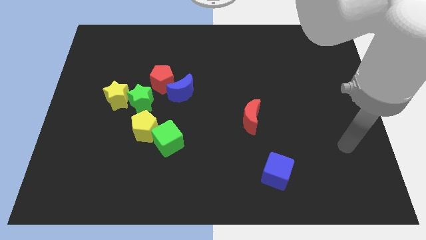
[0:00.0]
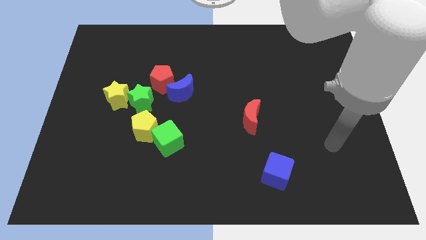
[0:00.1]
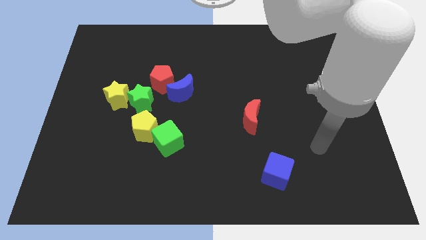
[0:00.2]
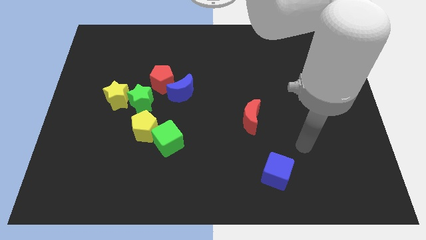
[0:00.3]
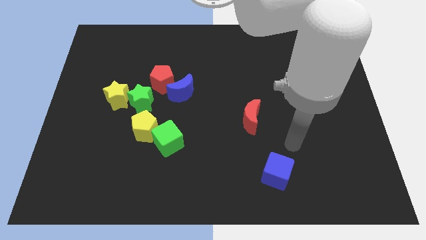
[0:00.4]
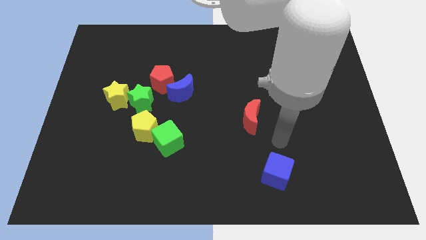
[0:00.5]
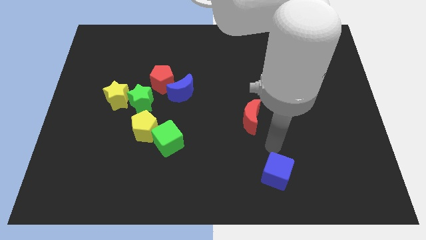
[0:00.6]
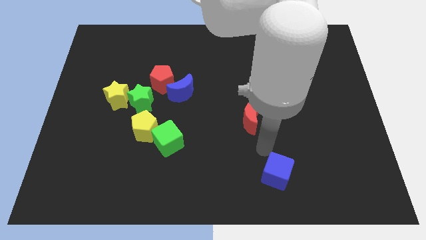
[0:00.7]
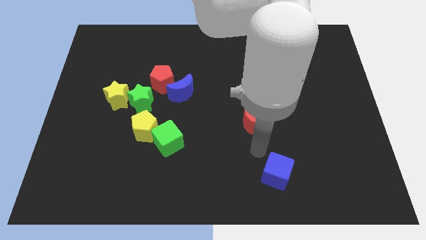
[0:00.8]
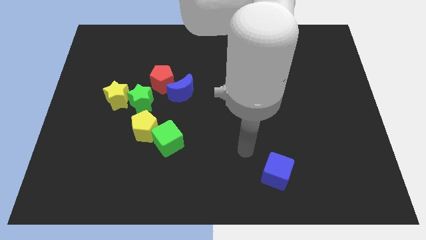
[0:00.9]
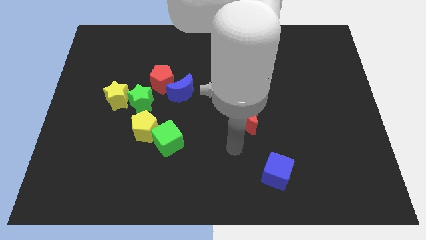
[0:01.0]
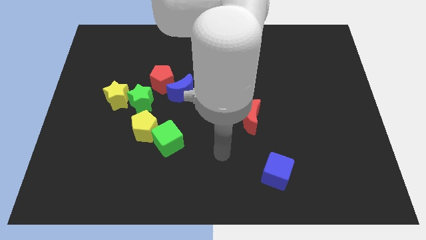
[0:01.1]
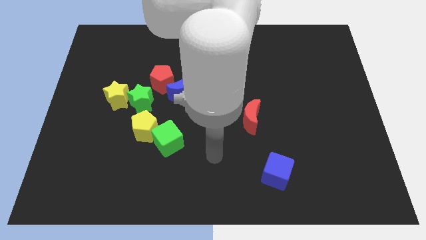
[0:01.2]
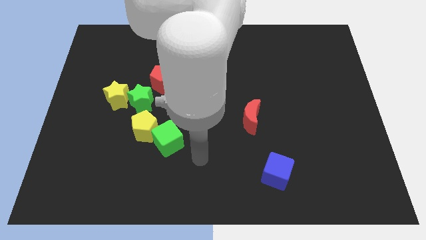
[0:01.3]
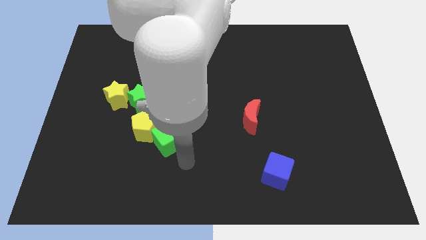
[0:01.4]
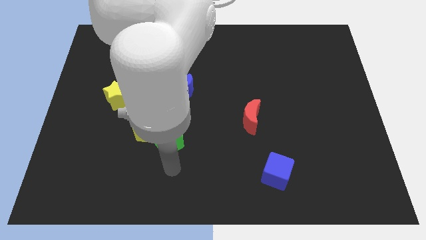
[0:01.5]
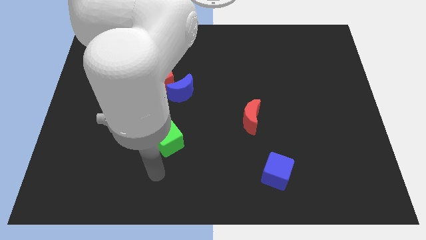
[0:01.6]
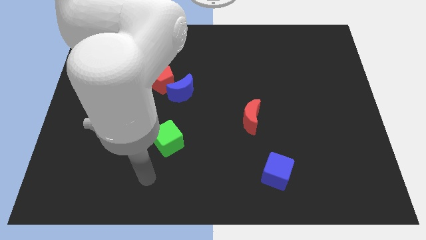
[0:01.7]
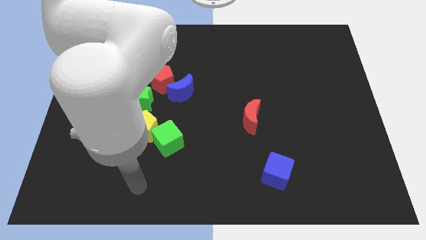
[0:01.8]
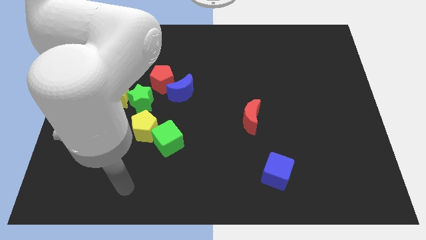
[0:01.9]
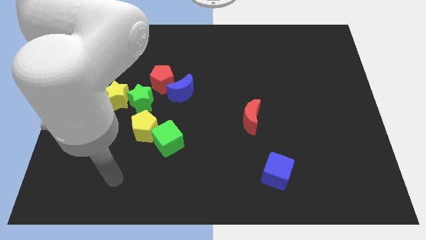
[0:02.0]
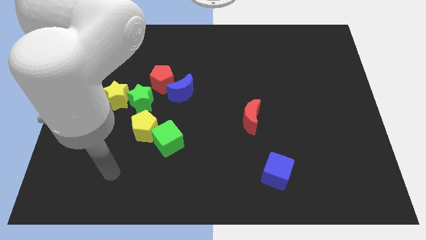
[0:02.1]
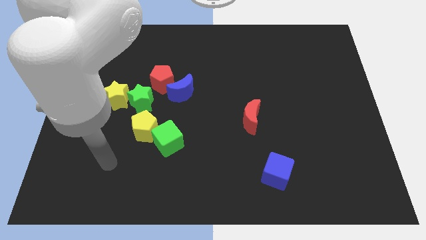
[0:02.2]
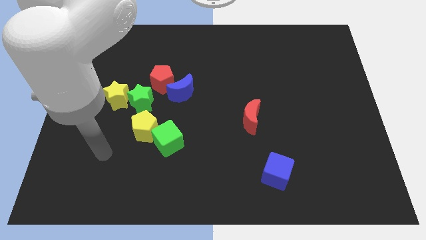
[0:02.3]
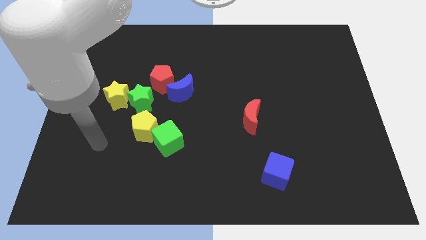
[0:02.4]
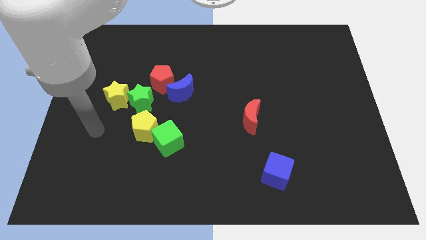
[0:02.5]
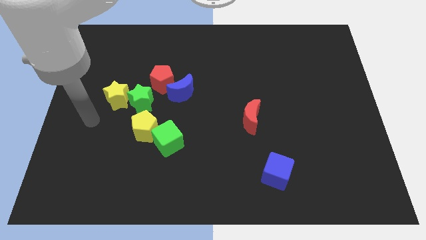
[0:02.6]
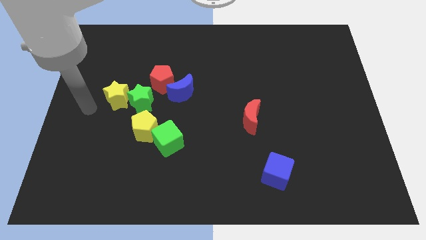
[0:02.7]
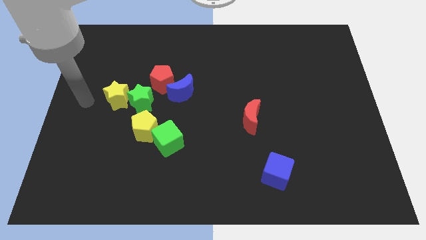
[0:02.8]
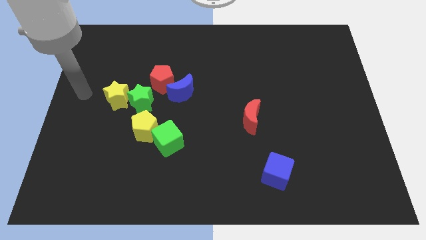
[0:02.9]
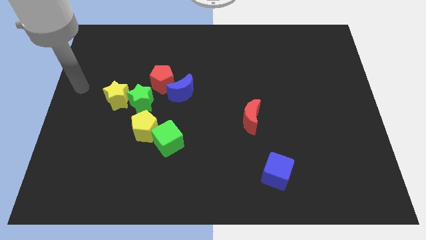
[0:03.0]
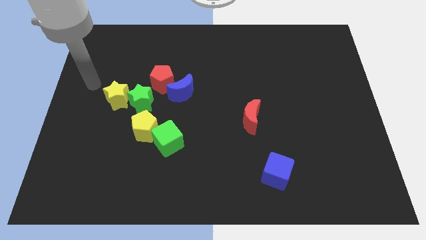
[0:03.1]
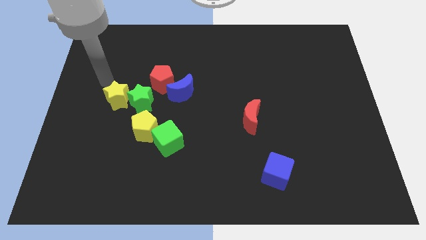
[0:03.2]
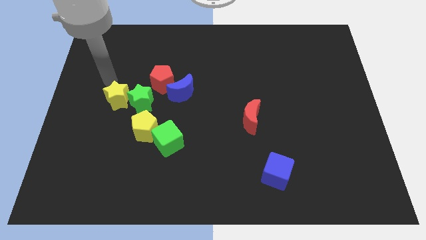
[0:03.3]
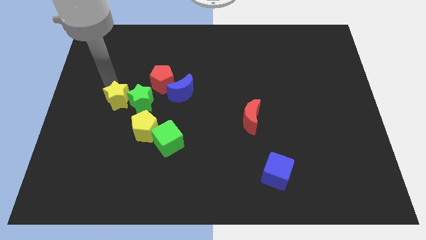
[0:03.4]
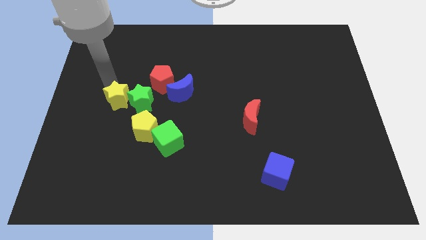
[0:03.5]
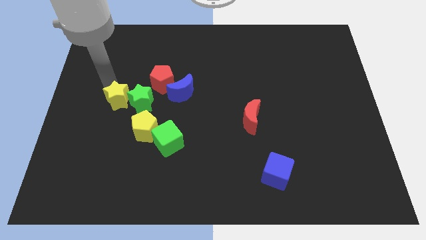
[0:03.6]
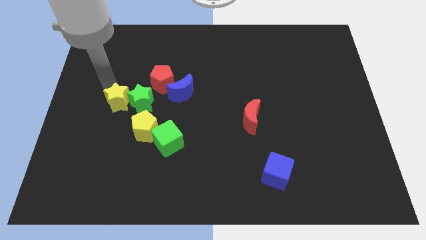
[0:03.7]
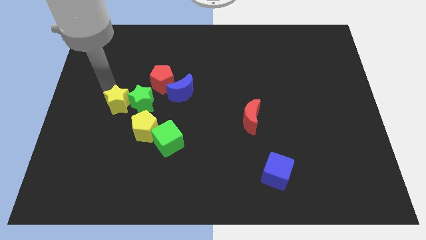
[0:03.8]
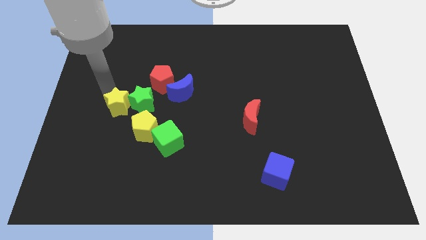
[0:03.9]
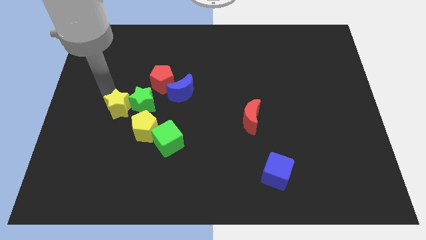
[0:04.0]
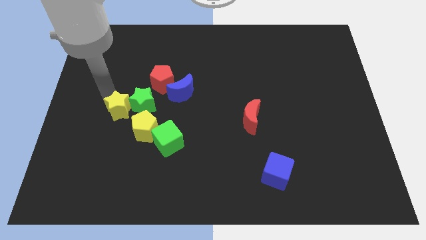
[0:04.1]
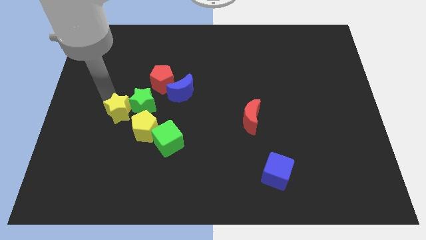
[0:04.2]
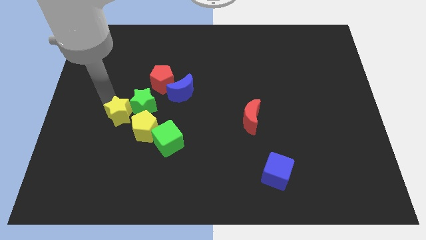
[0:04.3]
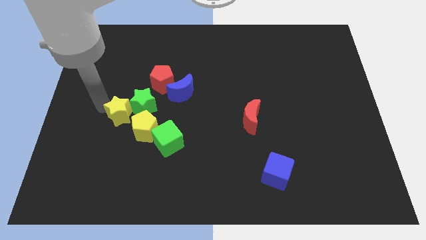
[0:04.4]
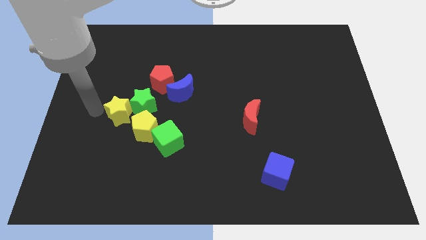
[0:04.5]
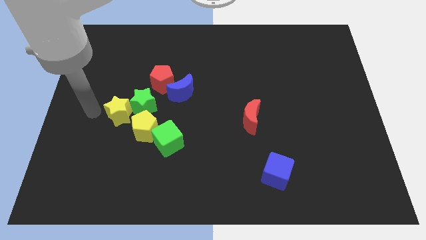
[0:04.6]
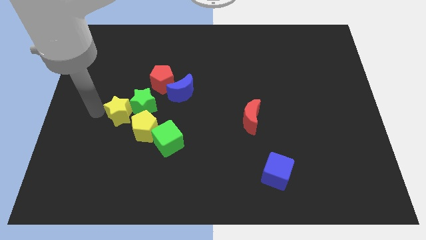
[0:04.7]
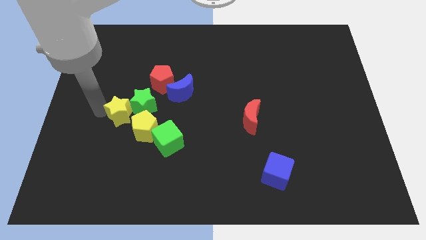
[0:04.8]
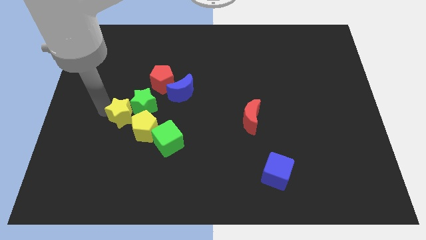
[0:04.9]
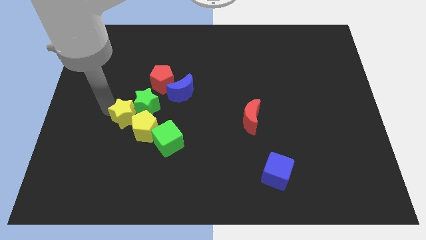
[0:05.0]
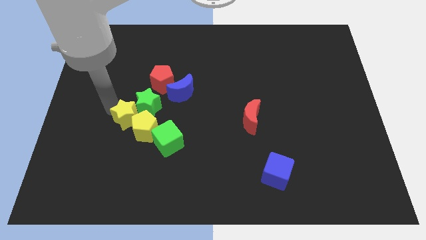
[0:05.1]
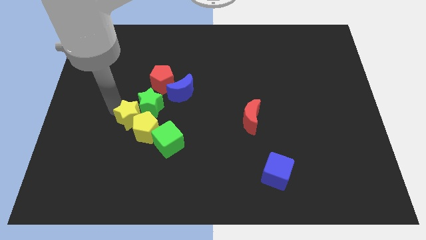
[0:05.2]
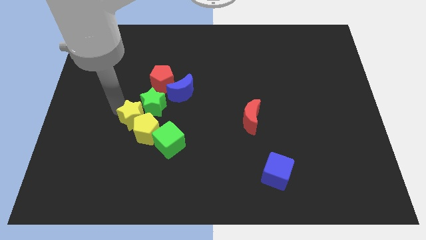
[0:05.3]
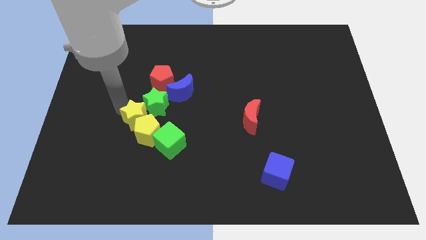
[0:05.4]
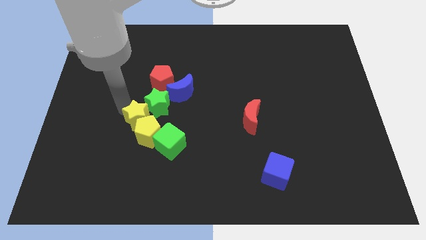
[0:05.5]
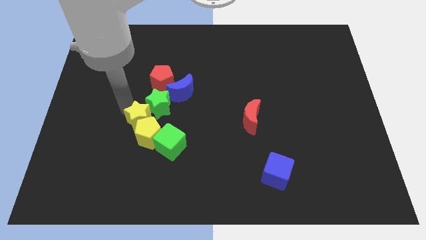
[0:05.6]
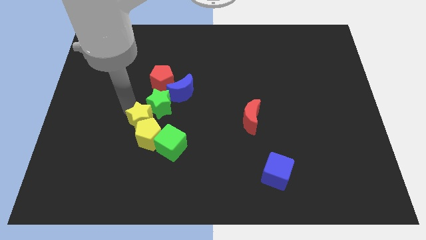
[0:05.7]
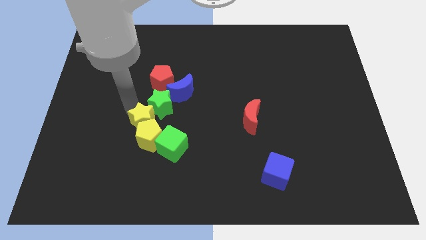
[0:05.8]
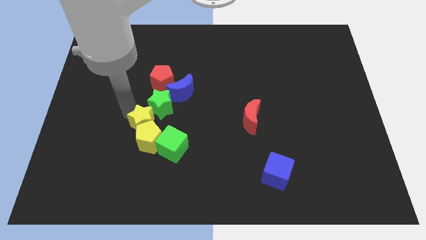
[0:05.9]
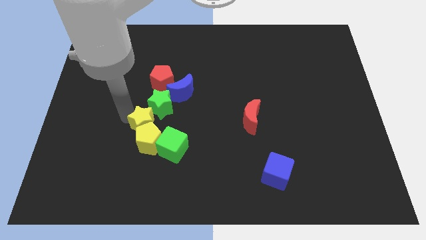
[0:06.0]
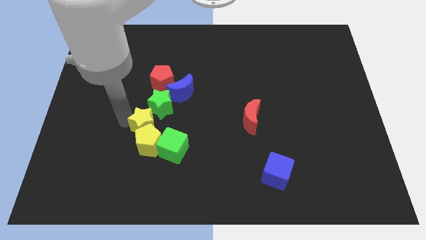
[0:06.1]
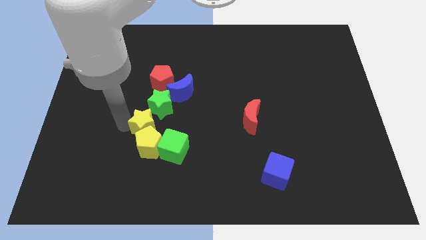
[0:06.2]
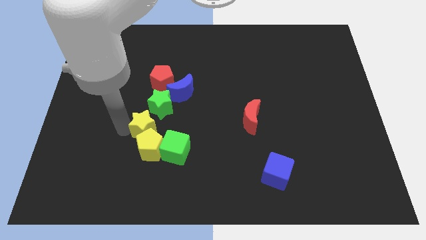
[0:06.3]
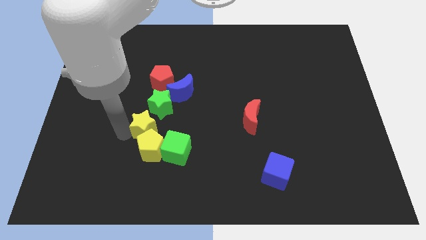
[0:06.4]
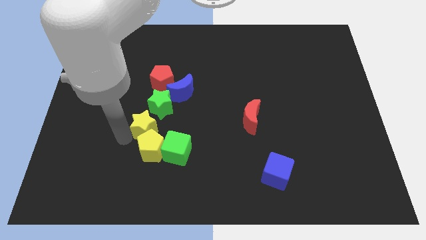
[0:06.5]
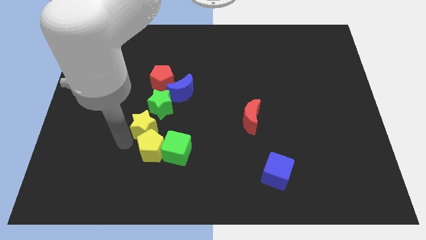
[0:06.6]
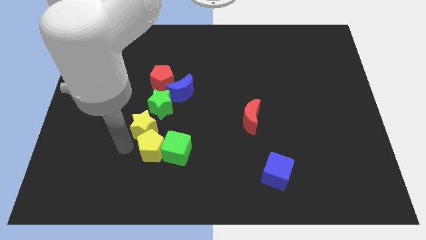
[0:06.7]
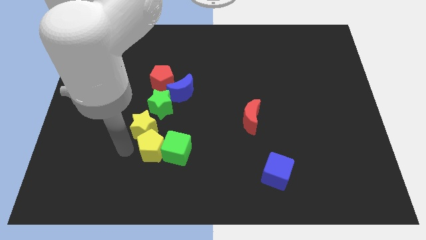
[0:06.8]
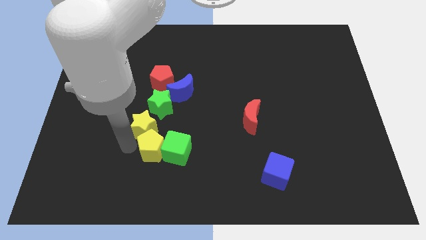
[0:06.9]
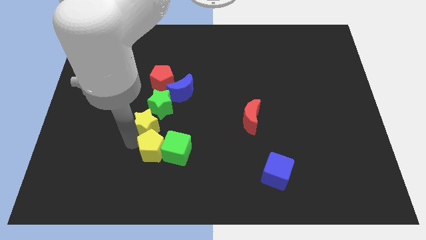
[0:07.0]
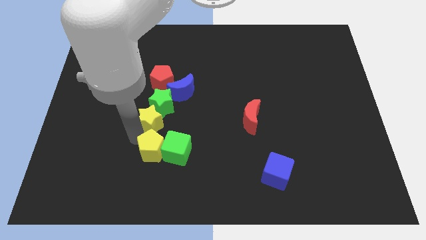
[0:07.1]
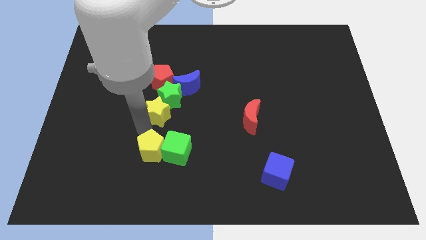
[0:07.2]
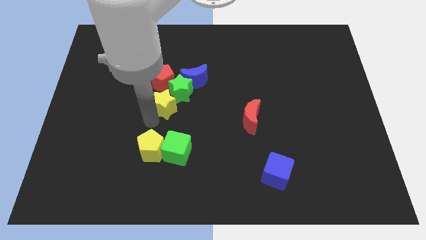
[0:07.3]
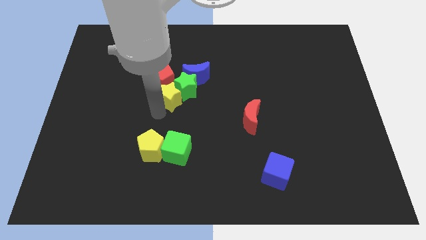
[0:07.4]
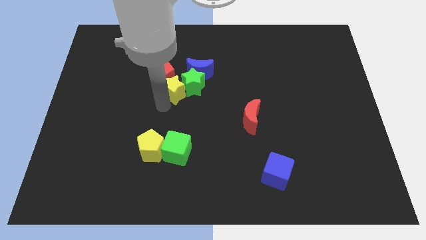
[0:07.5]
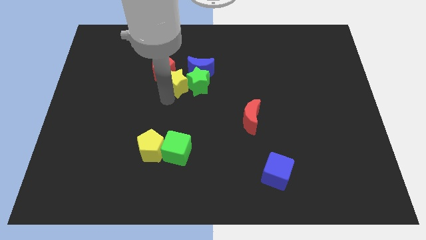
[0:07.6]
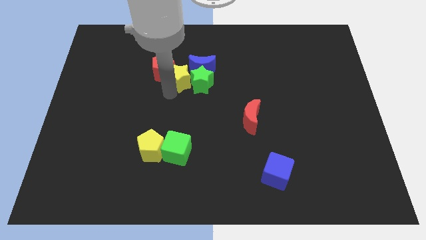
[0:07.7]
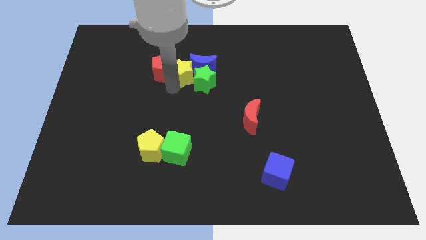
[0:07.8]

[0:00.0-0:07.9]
put the yellow star close to the blue moon
